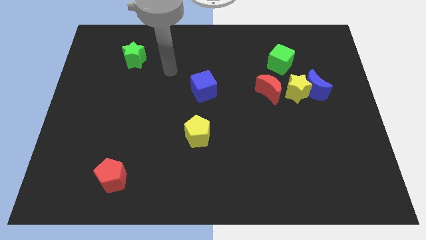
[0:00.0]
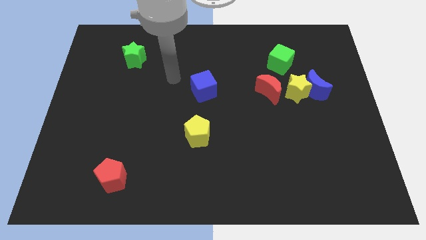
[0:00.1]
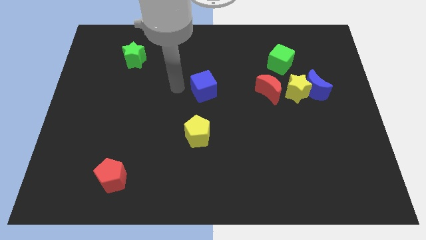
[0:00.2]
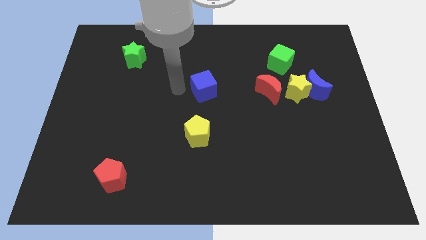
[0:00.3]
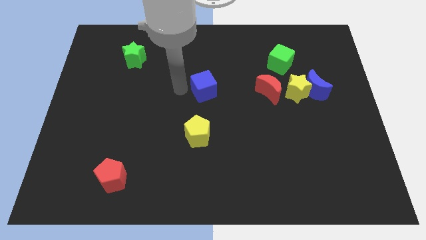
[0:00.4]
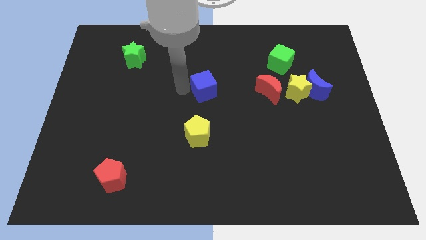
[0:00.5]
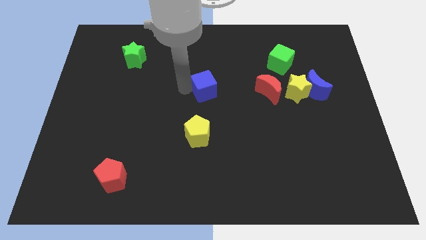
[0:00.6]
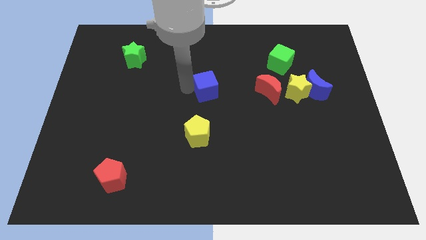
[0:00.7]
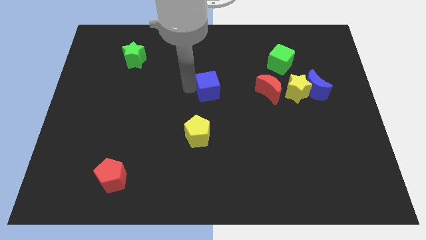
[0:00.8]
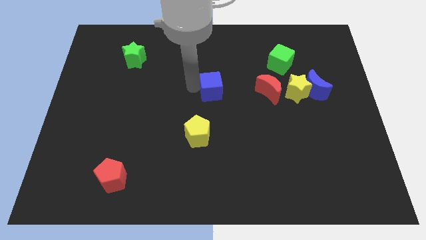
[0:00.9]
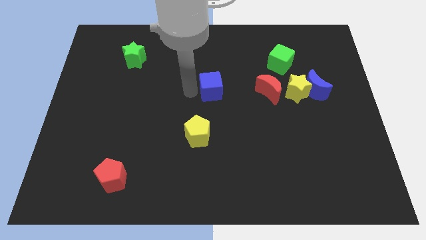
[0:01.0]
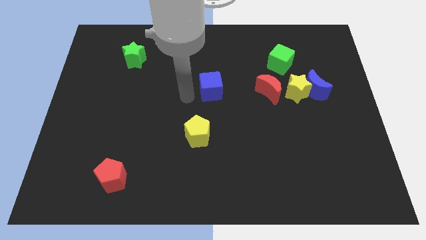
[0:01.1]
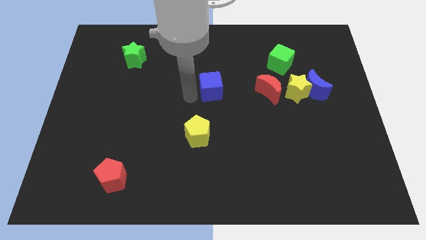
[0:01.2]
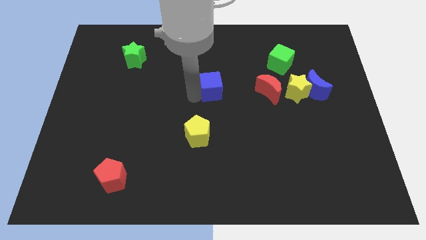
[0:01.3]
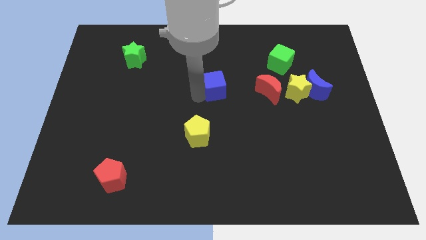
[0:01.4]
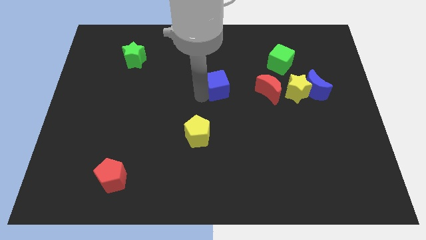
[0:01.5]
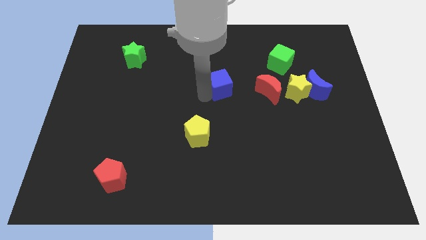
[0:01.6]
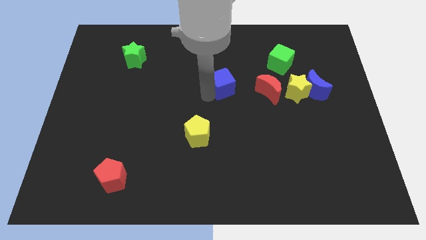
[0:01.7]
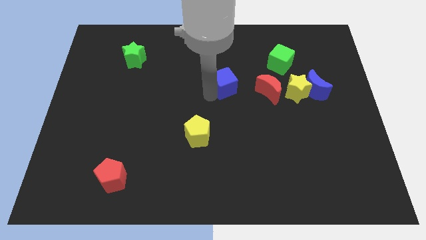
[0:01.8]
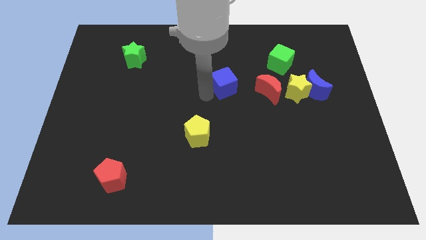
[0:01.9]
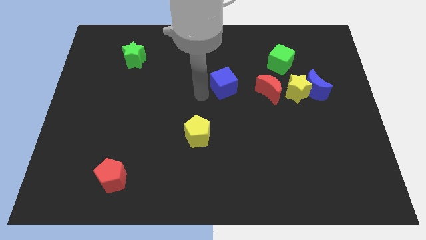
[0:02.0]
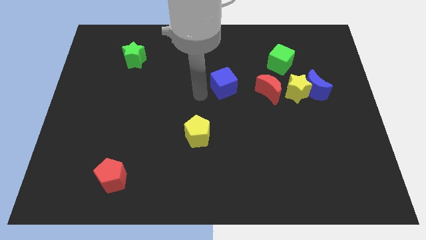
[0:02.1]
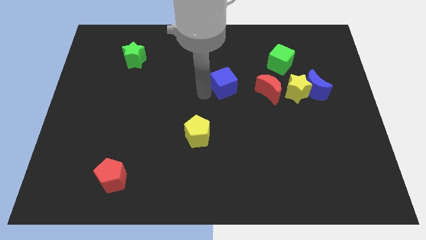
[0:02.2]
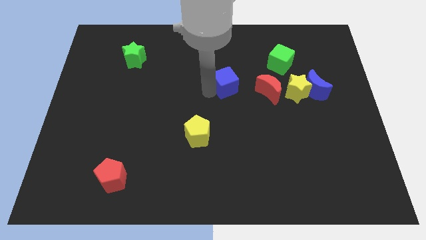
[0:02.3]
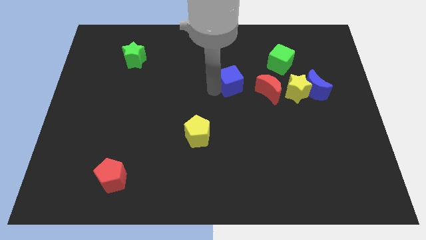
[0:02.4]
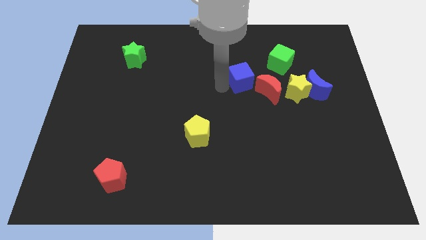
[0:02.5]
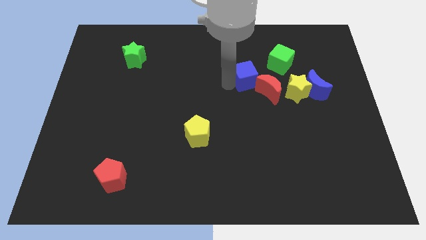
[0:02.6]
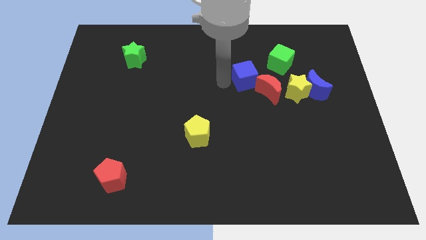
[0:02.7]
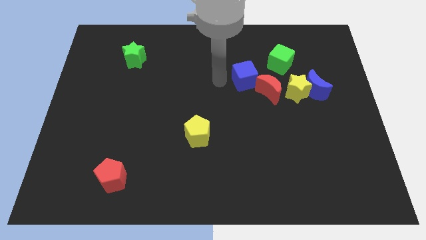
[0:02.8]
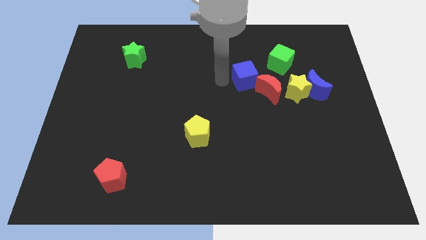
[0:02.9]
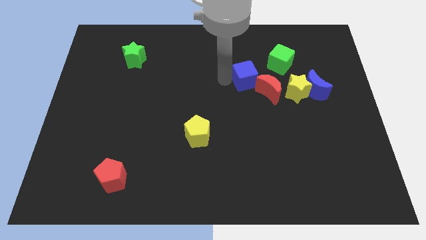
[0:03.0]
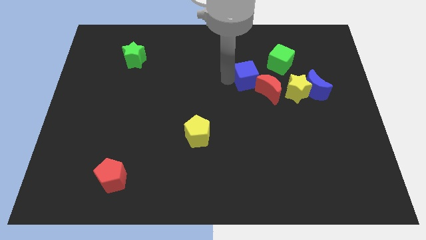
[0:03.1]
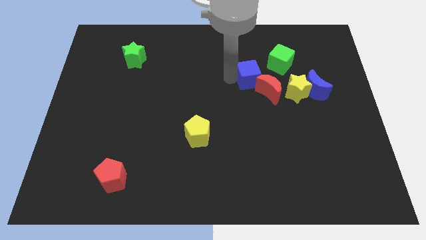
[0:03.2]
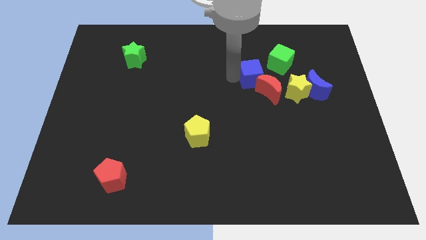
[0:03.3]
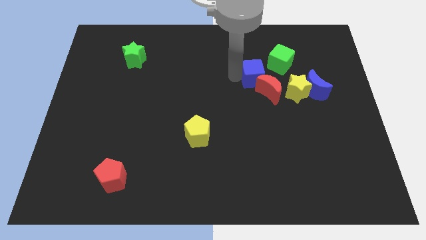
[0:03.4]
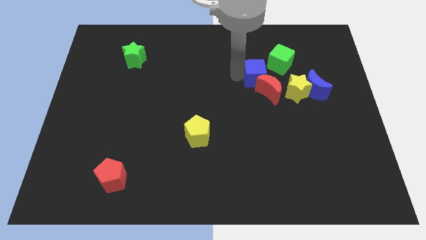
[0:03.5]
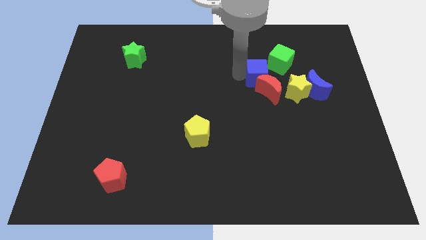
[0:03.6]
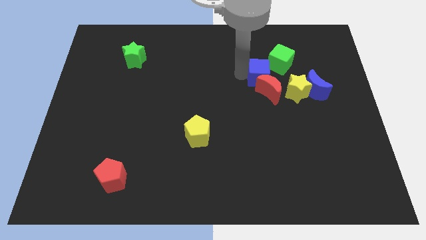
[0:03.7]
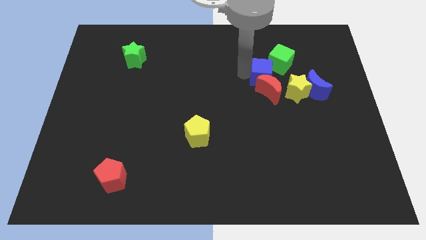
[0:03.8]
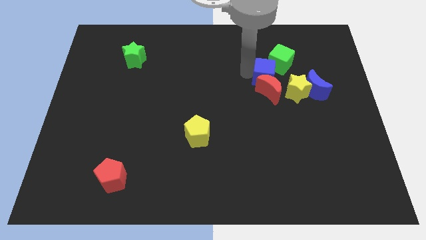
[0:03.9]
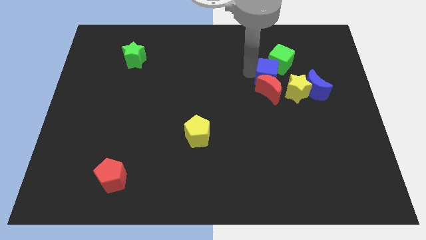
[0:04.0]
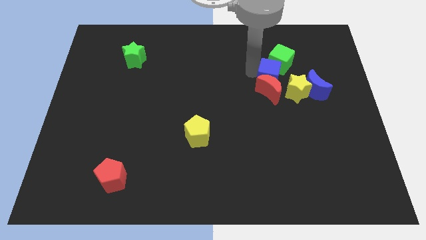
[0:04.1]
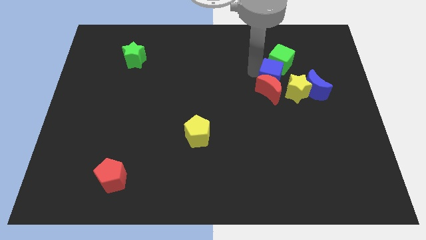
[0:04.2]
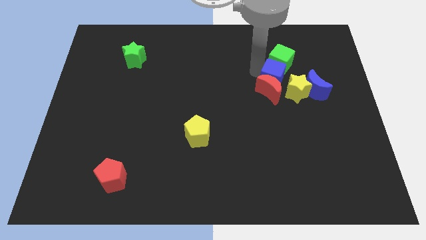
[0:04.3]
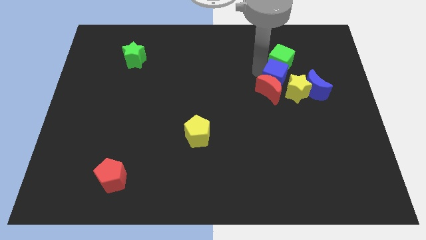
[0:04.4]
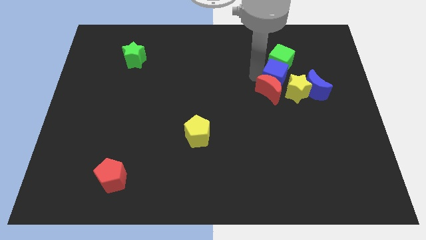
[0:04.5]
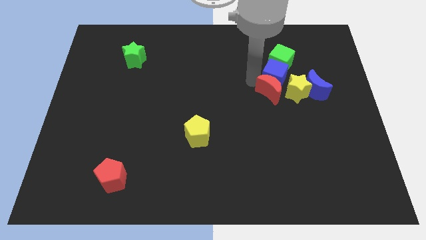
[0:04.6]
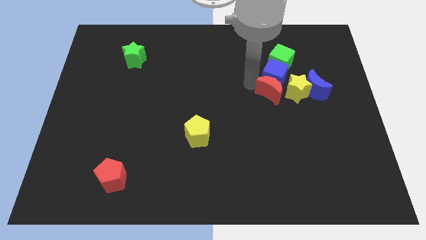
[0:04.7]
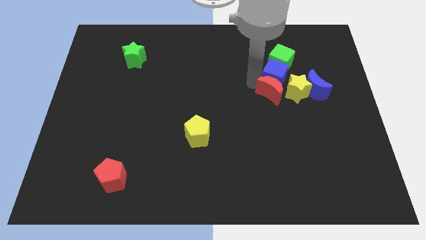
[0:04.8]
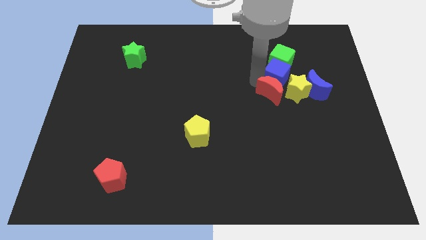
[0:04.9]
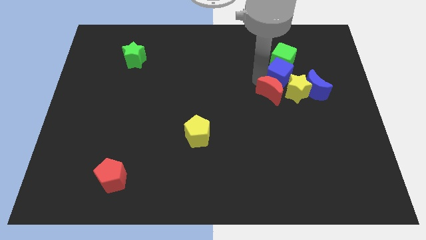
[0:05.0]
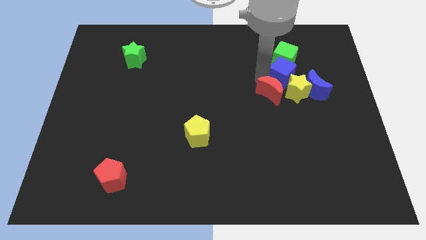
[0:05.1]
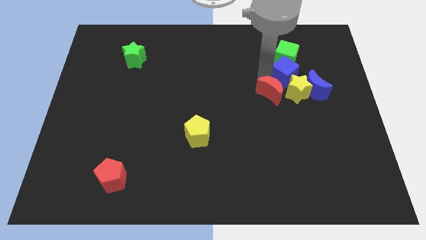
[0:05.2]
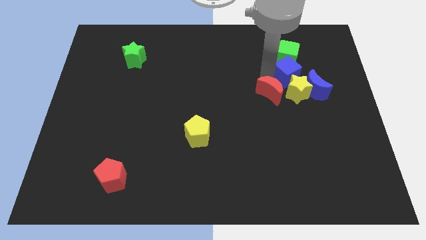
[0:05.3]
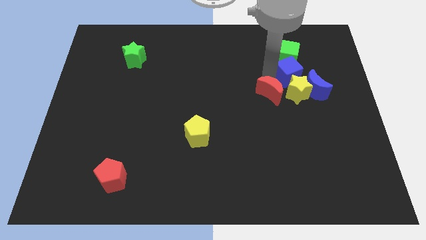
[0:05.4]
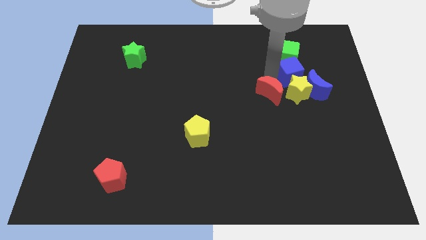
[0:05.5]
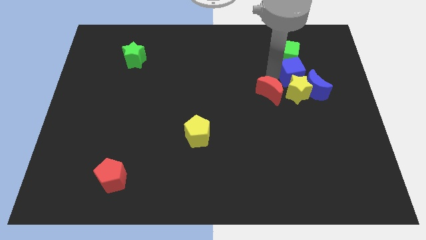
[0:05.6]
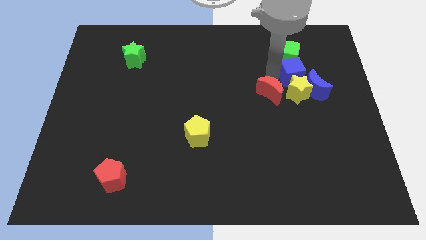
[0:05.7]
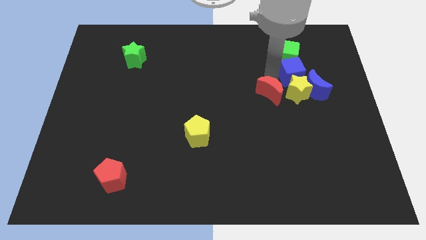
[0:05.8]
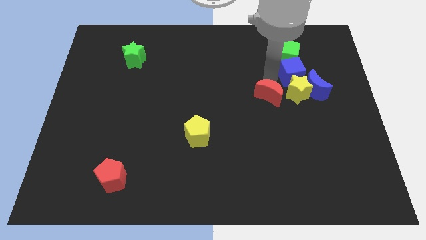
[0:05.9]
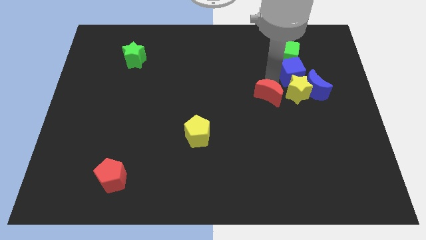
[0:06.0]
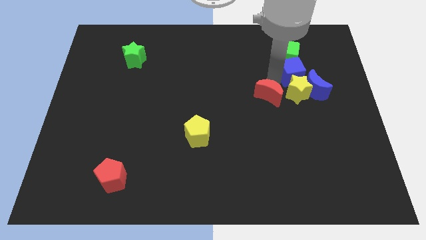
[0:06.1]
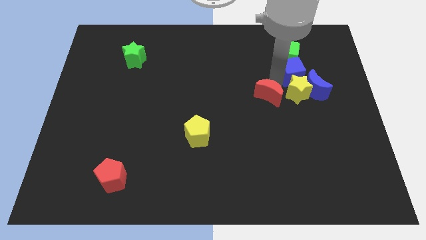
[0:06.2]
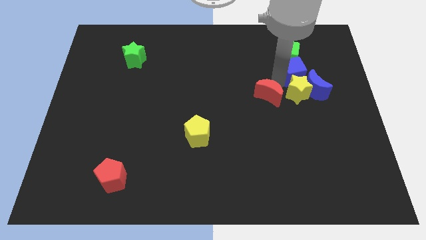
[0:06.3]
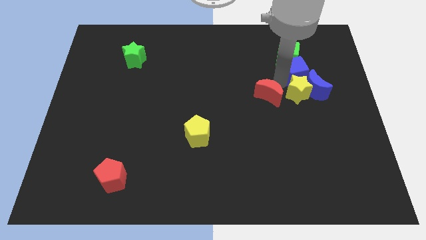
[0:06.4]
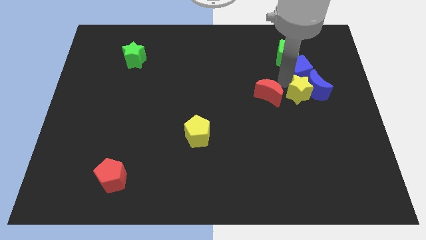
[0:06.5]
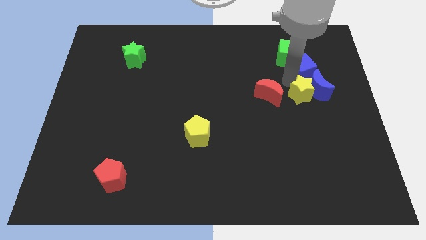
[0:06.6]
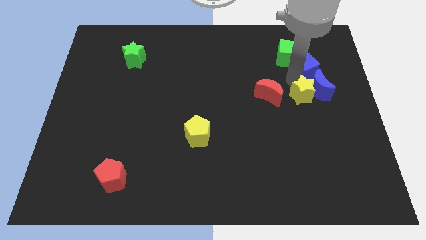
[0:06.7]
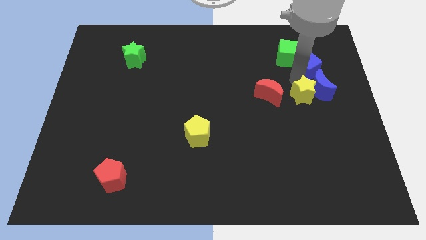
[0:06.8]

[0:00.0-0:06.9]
push the blue cube right of the green cube

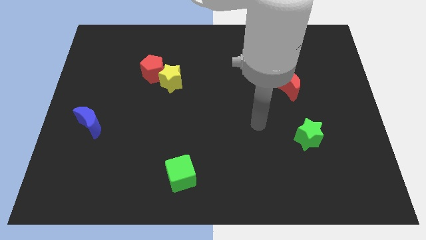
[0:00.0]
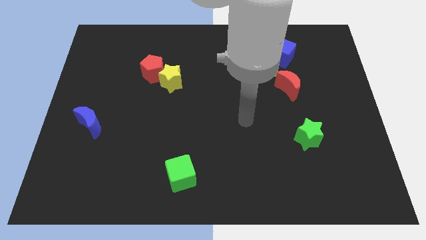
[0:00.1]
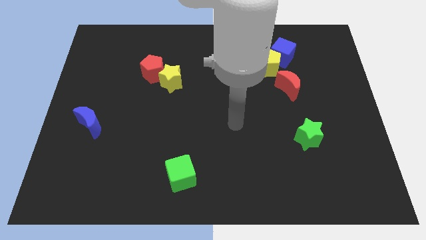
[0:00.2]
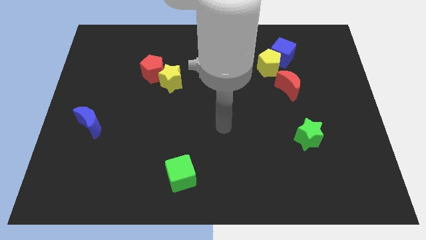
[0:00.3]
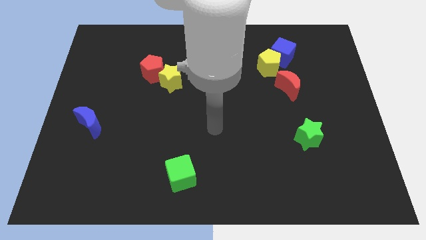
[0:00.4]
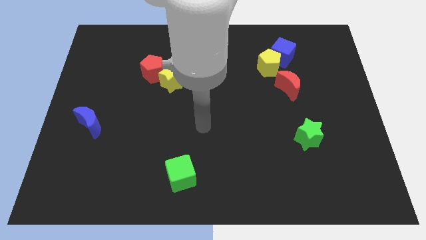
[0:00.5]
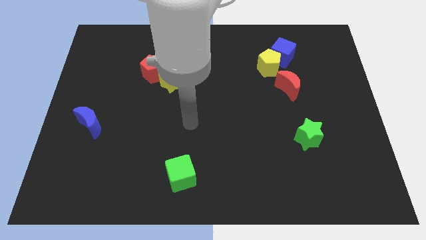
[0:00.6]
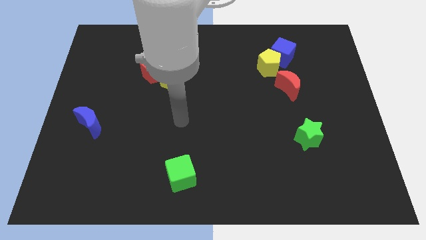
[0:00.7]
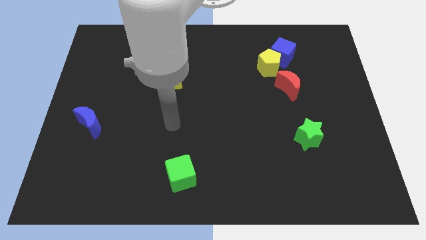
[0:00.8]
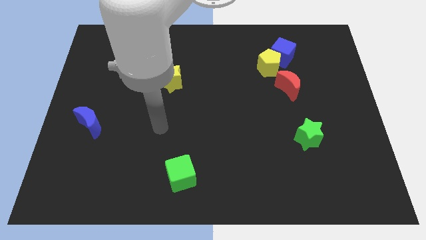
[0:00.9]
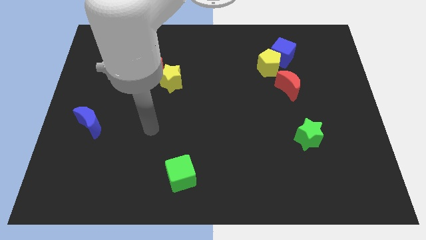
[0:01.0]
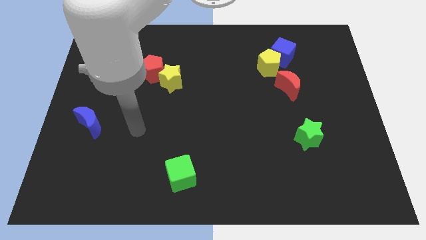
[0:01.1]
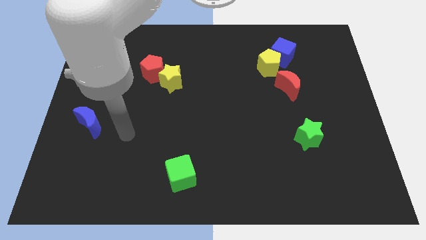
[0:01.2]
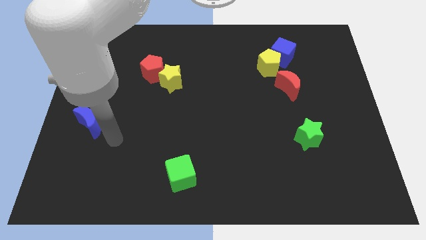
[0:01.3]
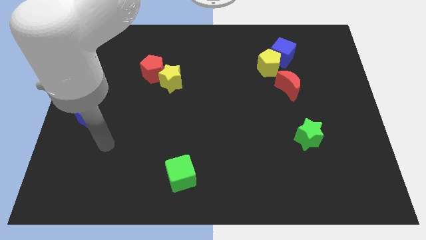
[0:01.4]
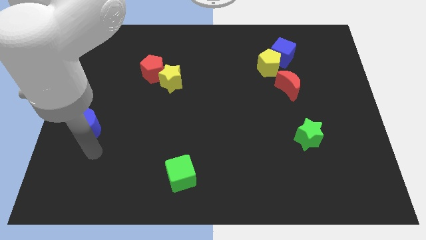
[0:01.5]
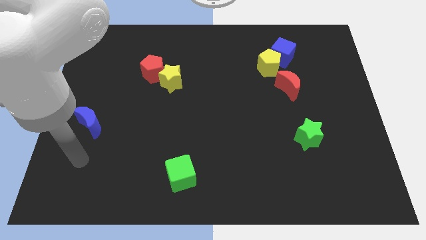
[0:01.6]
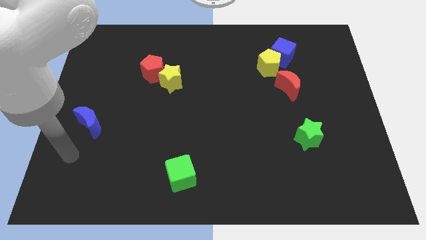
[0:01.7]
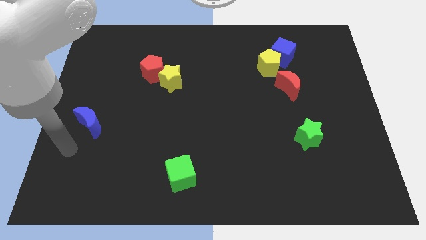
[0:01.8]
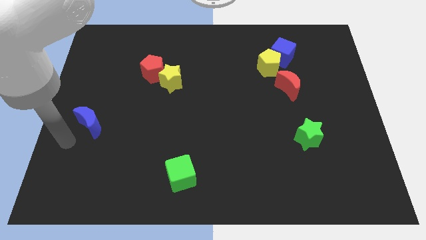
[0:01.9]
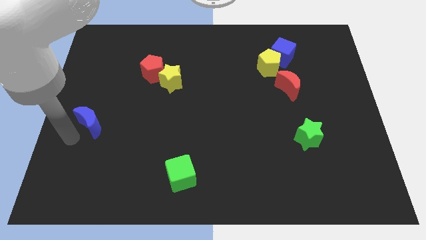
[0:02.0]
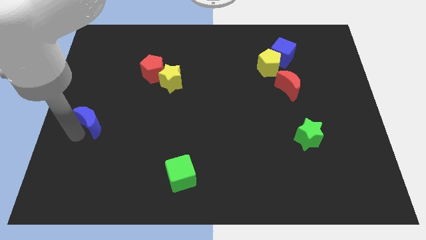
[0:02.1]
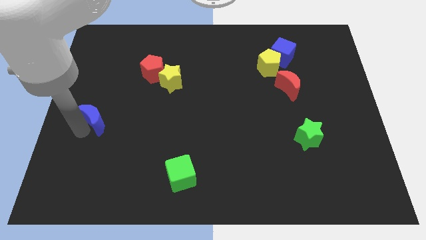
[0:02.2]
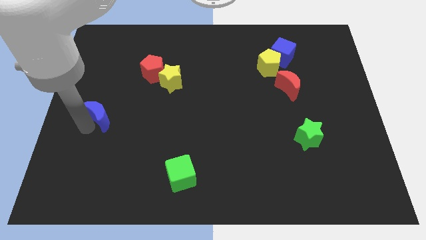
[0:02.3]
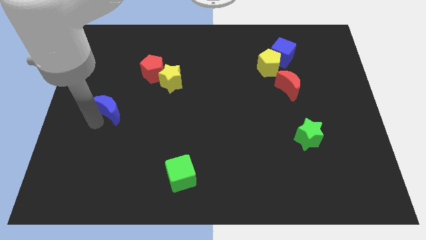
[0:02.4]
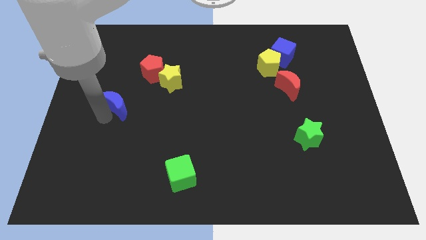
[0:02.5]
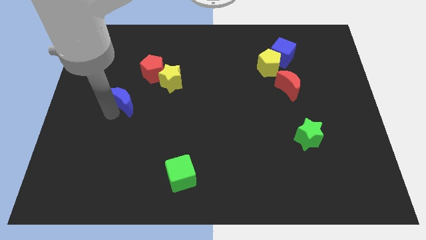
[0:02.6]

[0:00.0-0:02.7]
move the blue moon to the bottom left of the red pentagon
